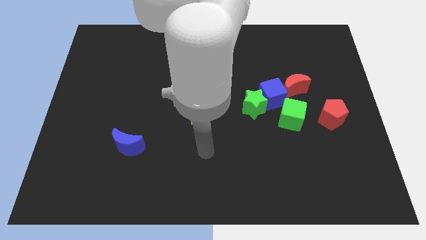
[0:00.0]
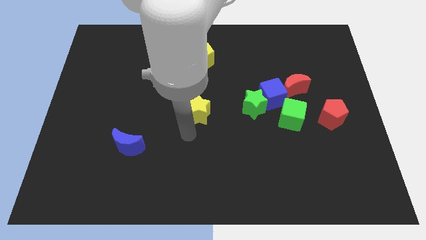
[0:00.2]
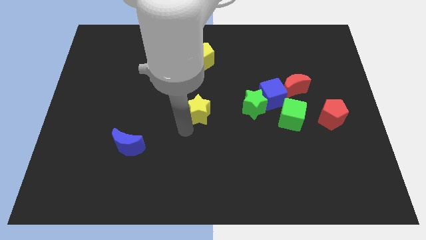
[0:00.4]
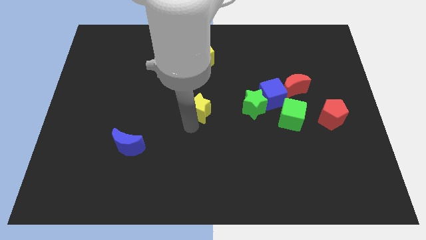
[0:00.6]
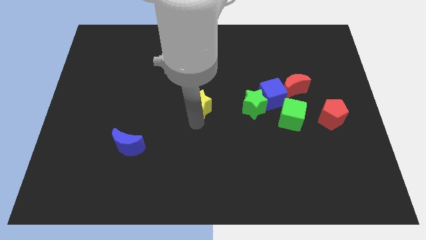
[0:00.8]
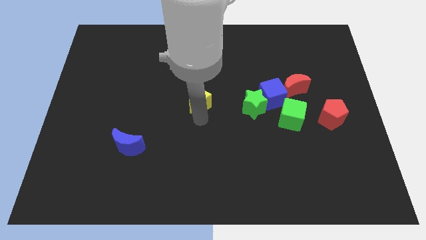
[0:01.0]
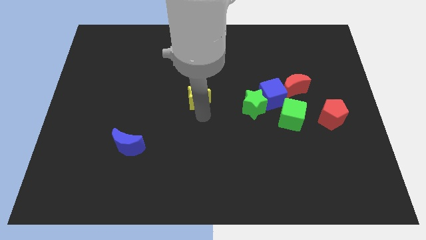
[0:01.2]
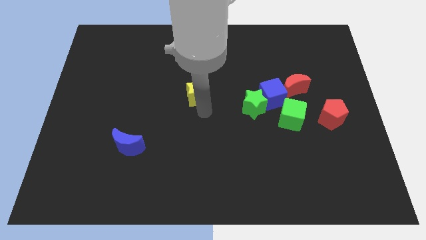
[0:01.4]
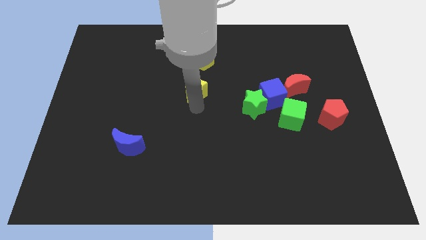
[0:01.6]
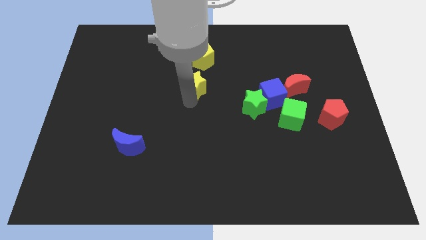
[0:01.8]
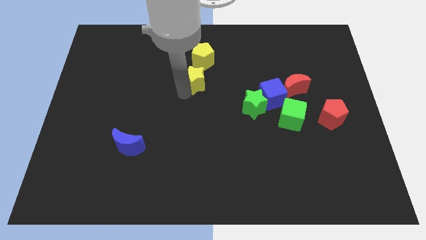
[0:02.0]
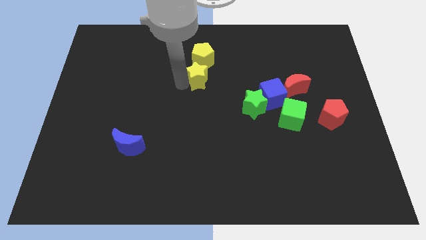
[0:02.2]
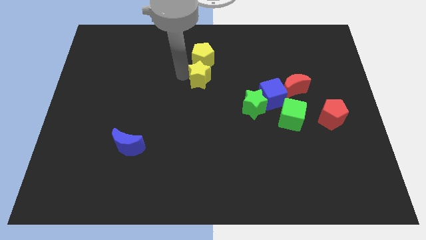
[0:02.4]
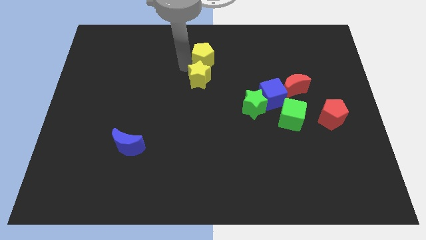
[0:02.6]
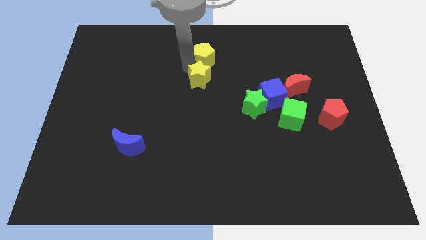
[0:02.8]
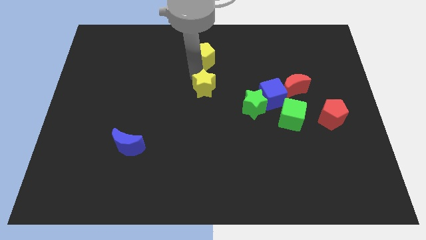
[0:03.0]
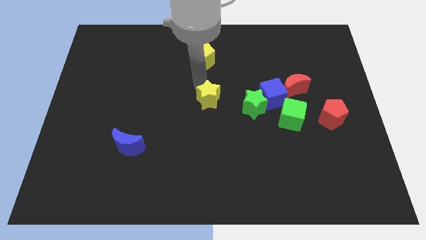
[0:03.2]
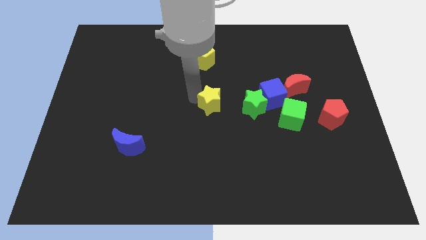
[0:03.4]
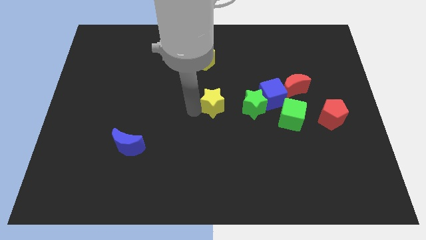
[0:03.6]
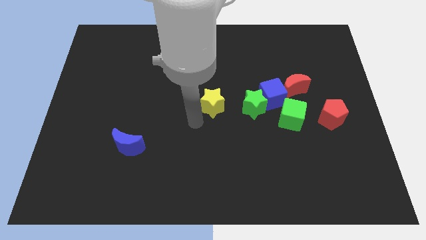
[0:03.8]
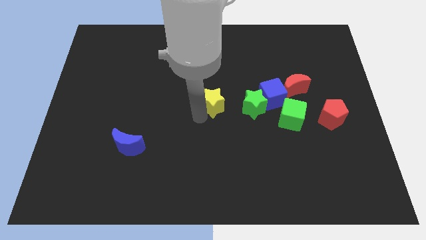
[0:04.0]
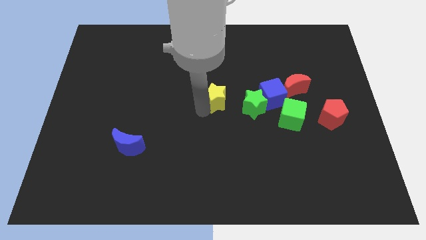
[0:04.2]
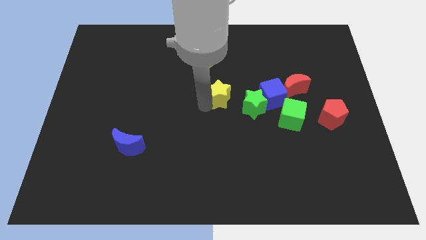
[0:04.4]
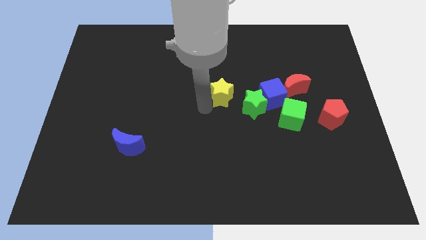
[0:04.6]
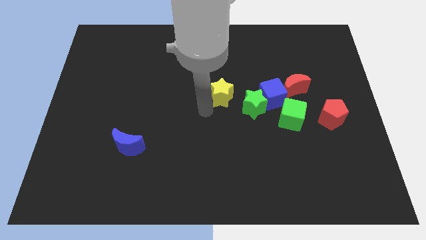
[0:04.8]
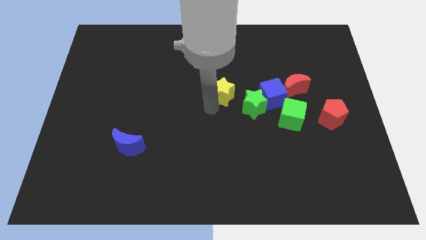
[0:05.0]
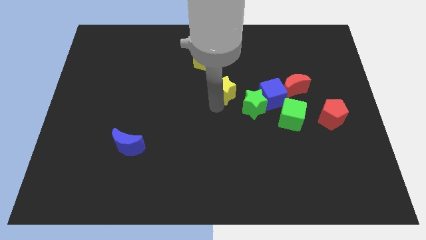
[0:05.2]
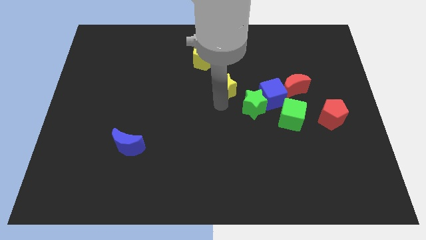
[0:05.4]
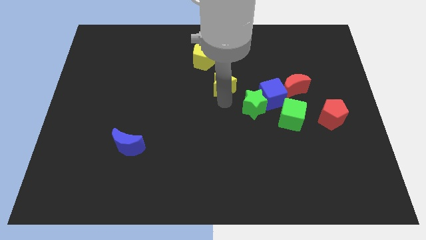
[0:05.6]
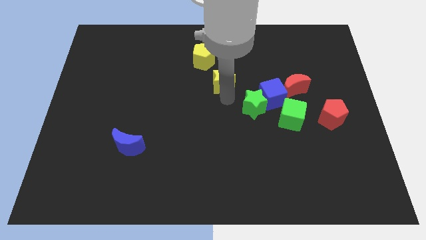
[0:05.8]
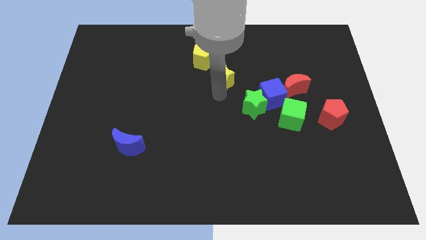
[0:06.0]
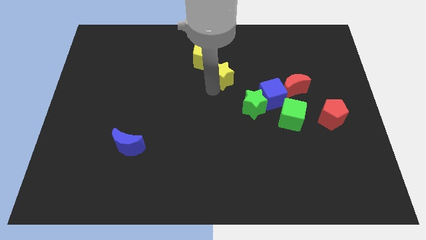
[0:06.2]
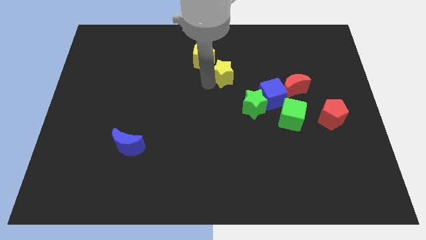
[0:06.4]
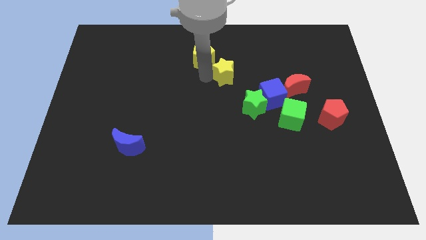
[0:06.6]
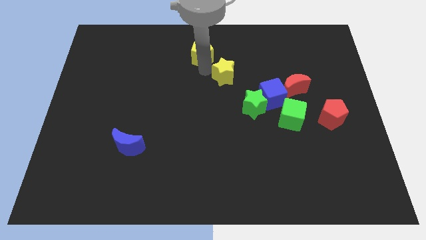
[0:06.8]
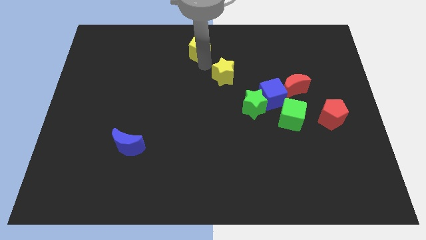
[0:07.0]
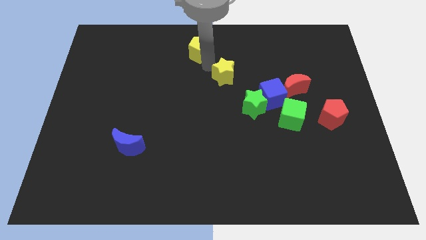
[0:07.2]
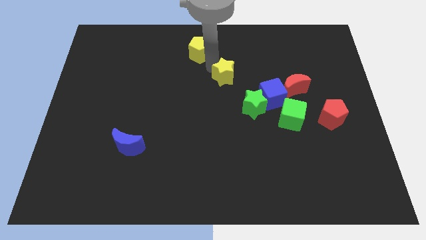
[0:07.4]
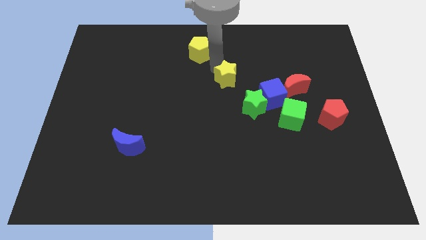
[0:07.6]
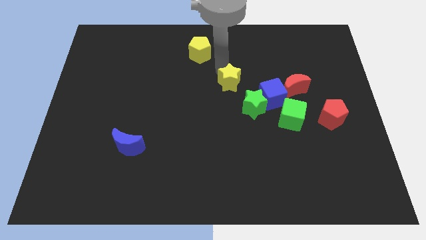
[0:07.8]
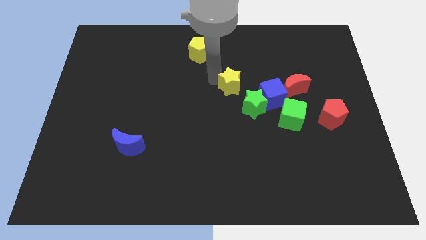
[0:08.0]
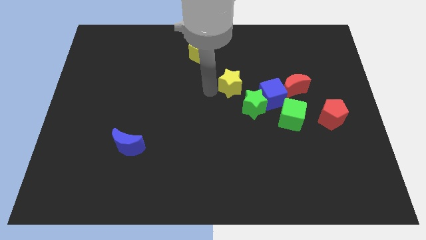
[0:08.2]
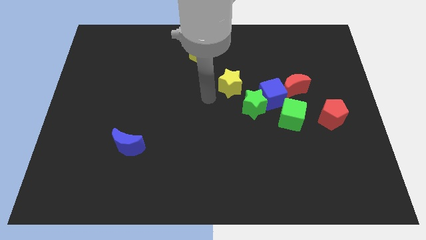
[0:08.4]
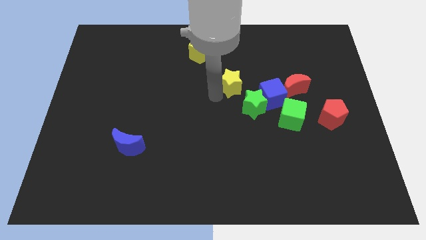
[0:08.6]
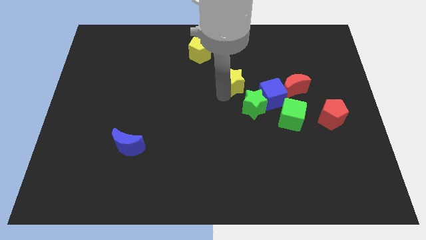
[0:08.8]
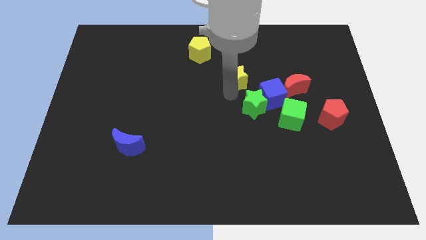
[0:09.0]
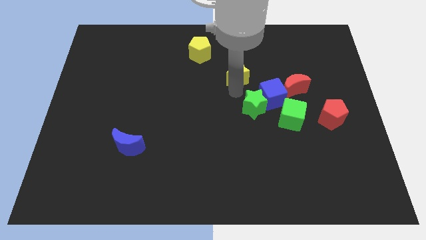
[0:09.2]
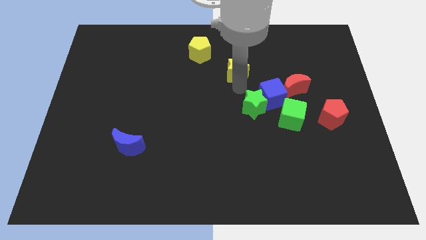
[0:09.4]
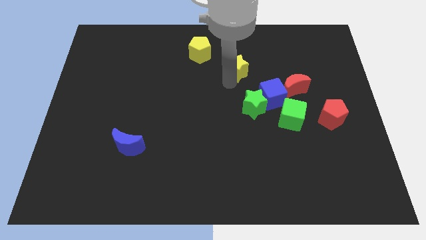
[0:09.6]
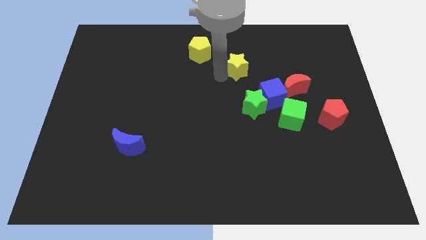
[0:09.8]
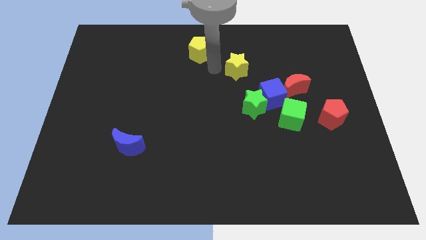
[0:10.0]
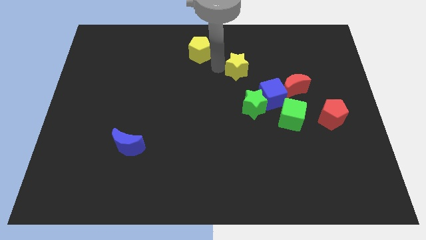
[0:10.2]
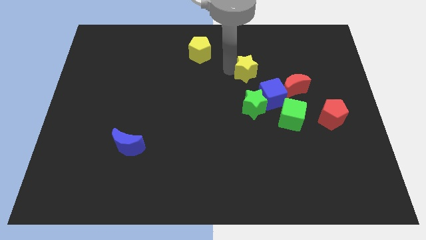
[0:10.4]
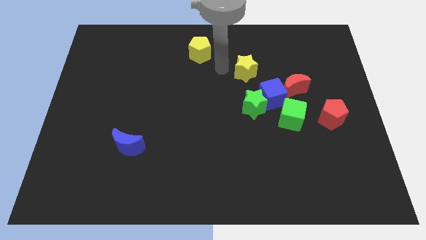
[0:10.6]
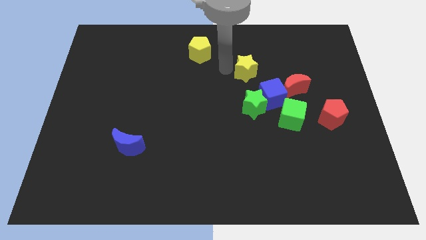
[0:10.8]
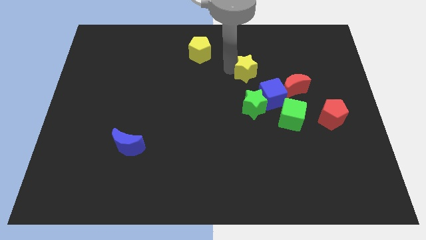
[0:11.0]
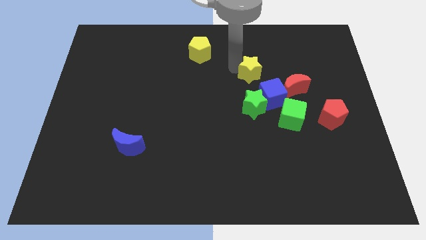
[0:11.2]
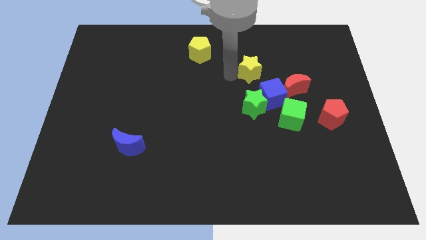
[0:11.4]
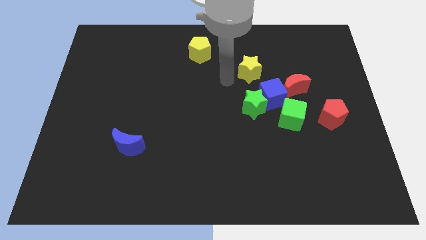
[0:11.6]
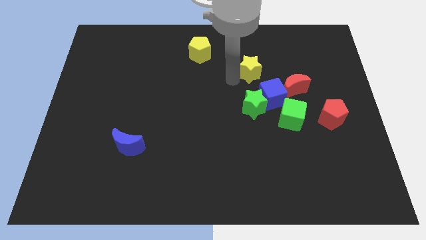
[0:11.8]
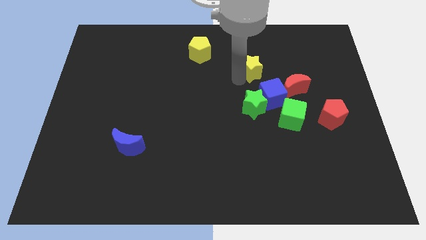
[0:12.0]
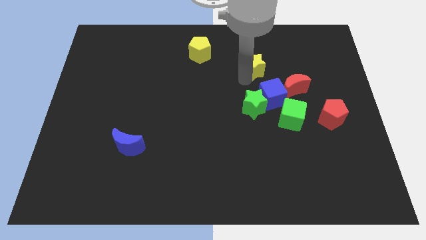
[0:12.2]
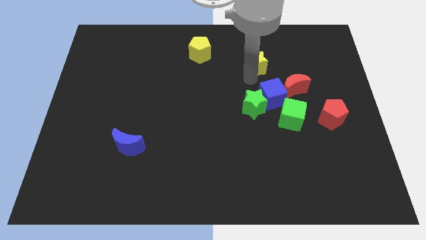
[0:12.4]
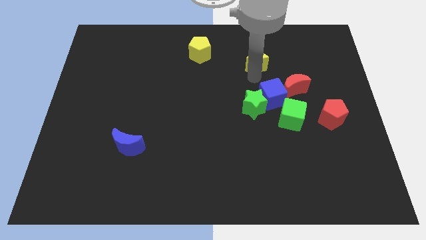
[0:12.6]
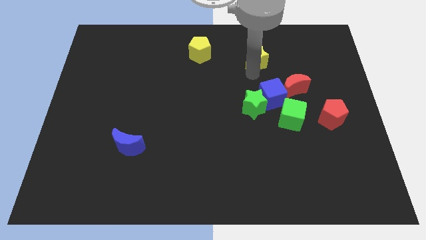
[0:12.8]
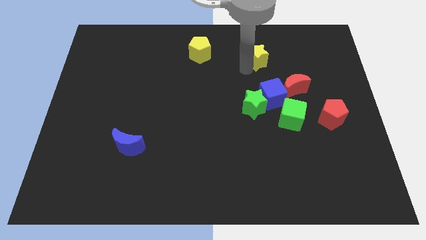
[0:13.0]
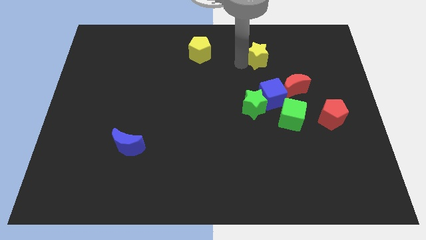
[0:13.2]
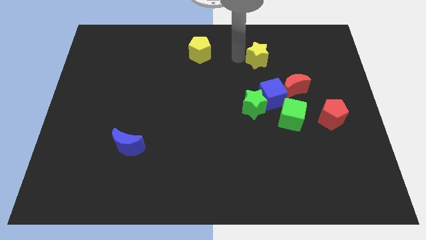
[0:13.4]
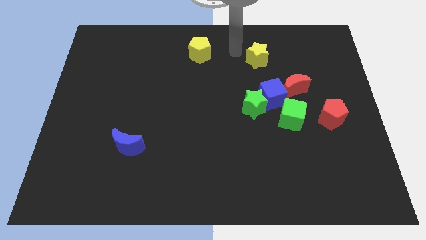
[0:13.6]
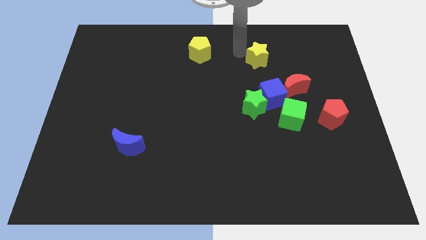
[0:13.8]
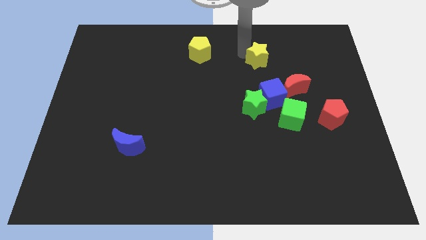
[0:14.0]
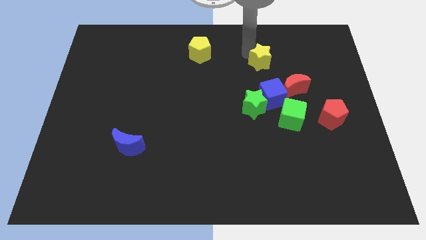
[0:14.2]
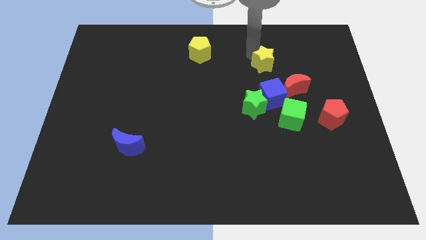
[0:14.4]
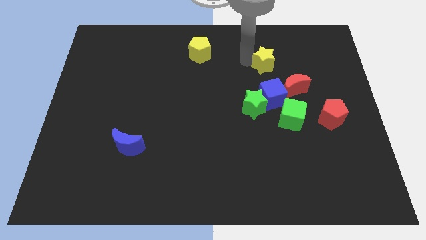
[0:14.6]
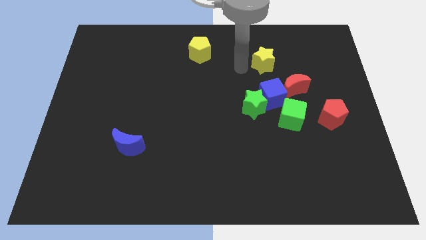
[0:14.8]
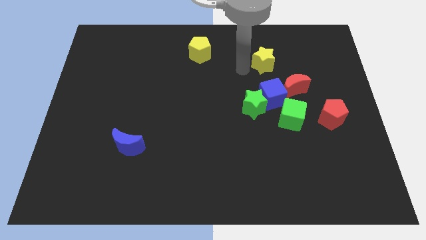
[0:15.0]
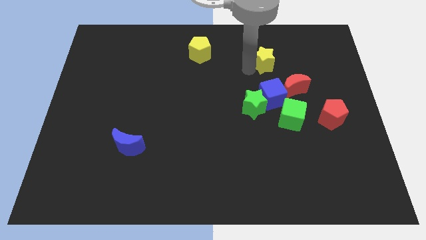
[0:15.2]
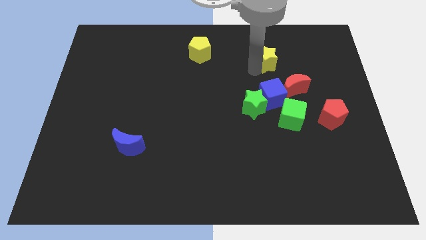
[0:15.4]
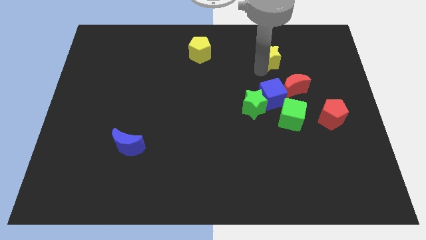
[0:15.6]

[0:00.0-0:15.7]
push the yellow star above the red moon
